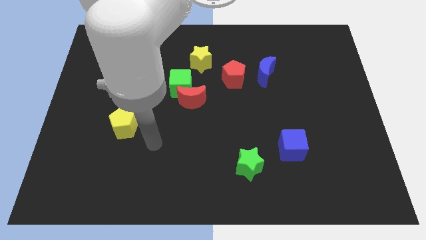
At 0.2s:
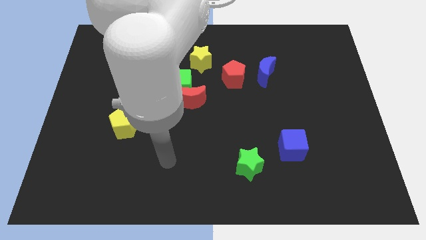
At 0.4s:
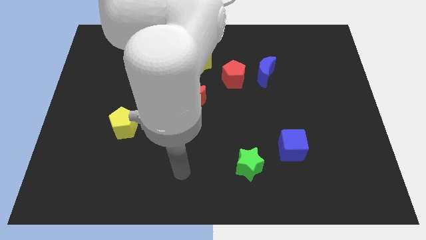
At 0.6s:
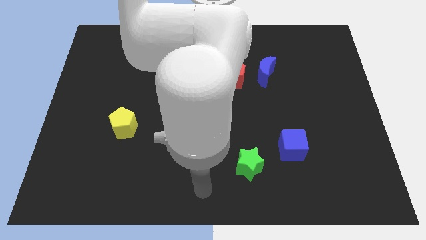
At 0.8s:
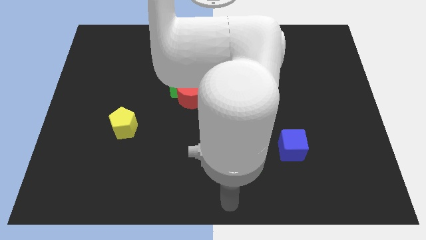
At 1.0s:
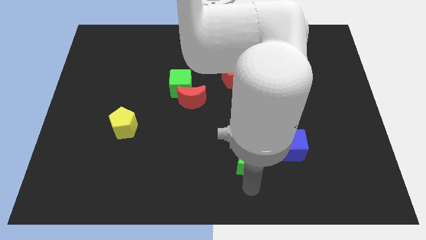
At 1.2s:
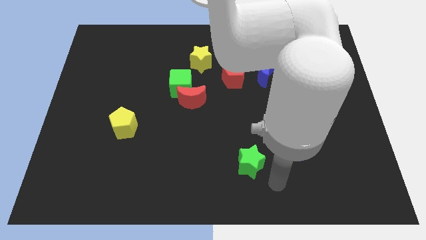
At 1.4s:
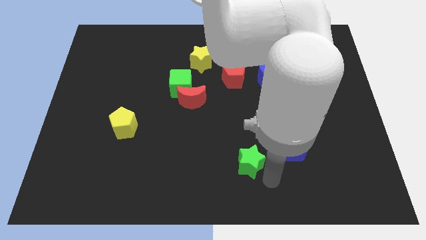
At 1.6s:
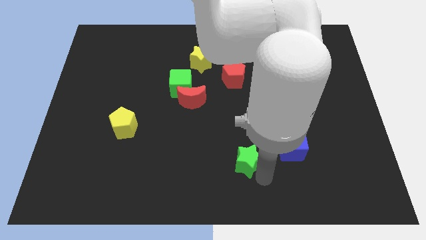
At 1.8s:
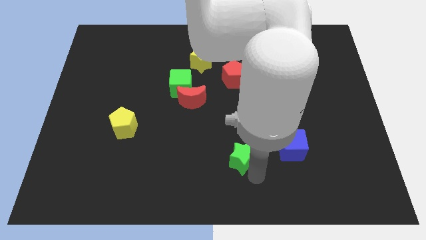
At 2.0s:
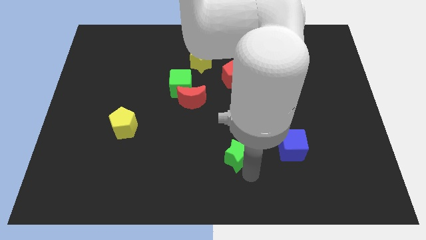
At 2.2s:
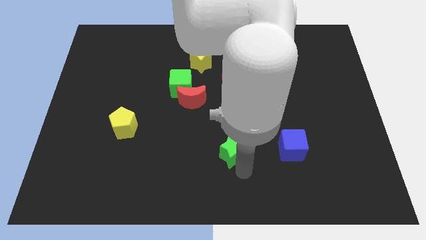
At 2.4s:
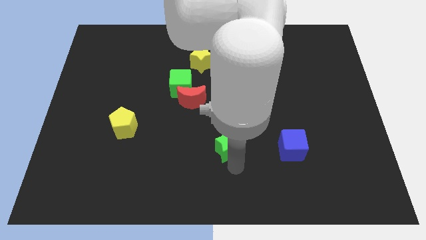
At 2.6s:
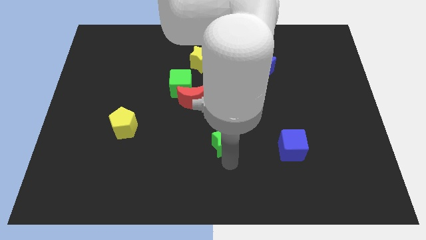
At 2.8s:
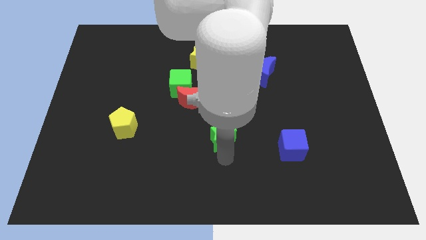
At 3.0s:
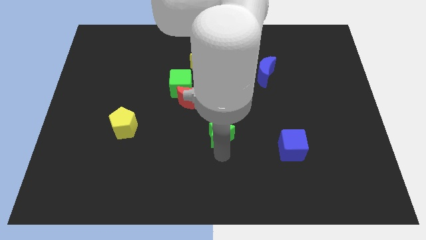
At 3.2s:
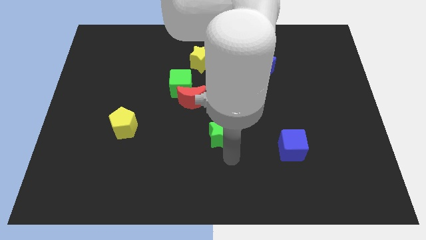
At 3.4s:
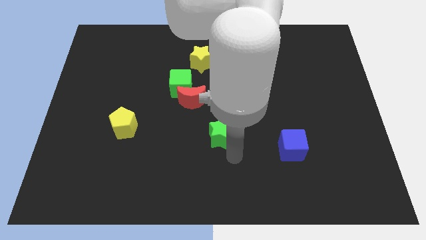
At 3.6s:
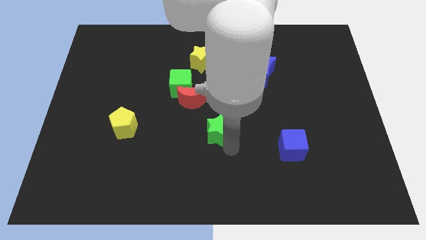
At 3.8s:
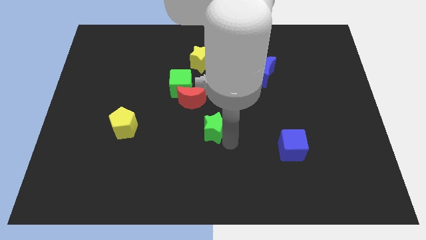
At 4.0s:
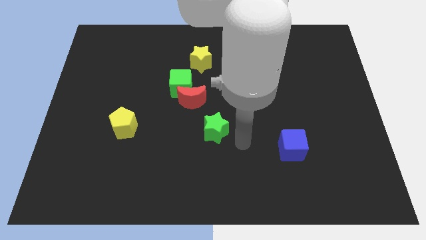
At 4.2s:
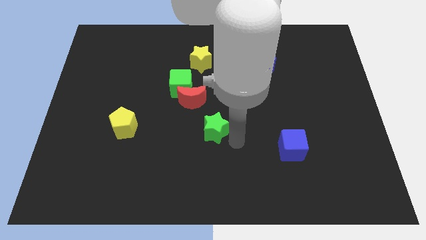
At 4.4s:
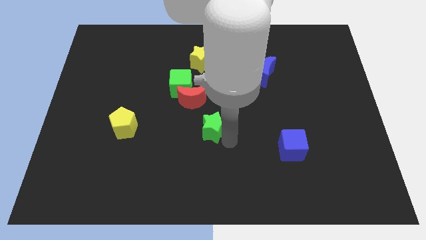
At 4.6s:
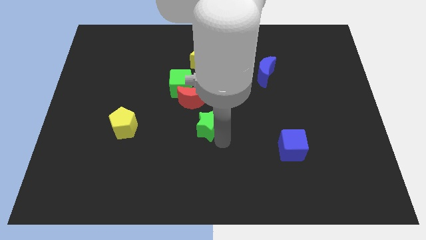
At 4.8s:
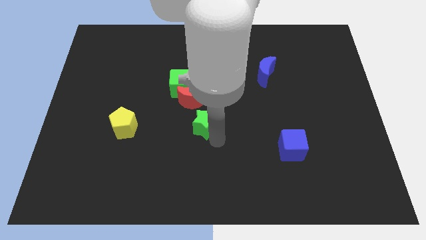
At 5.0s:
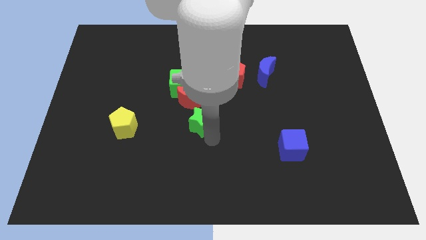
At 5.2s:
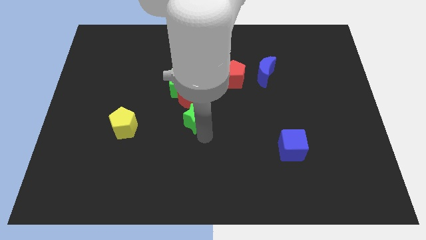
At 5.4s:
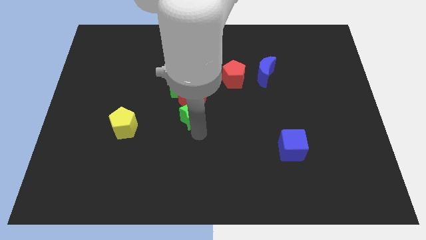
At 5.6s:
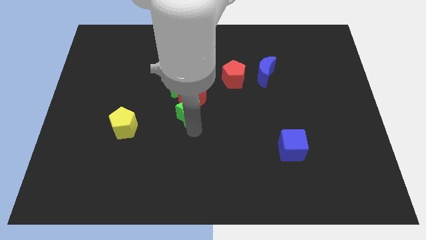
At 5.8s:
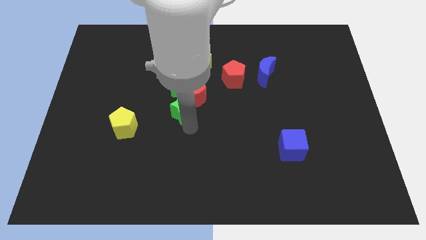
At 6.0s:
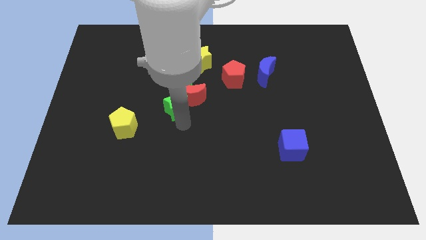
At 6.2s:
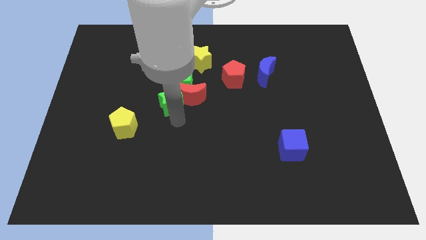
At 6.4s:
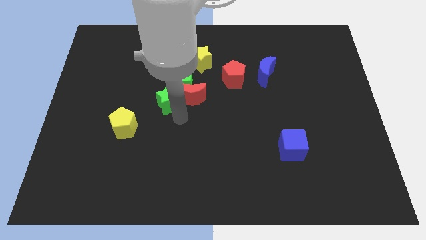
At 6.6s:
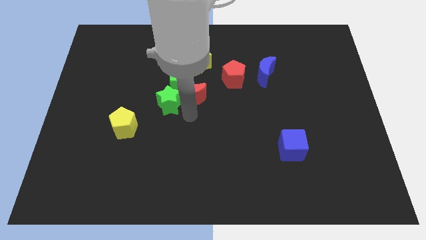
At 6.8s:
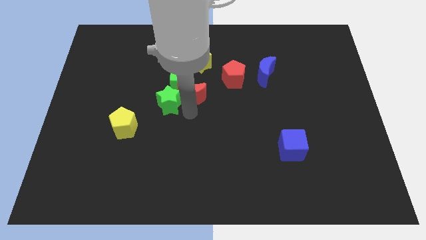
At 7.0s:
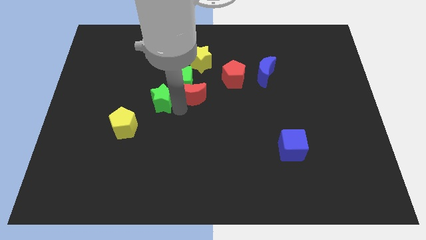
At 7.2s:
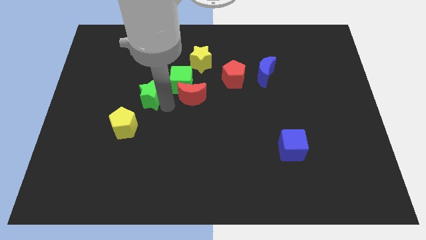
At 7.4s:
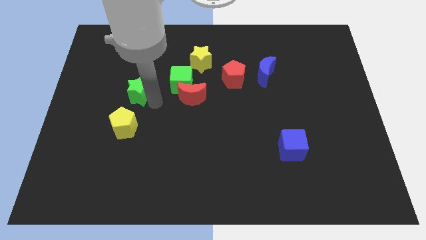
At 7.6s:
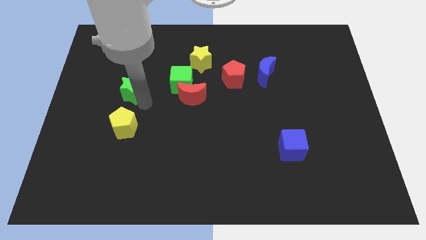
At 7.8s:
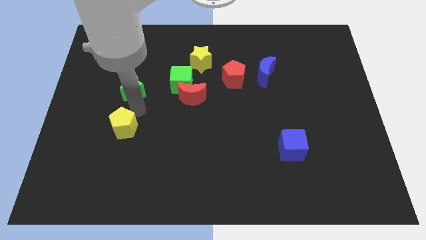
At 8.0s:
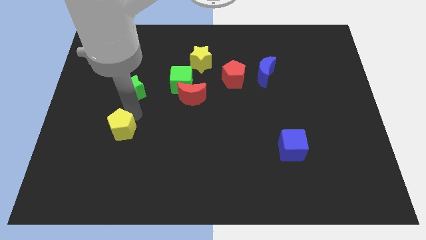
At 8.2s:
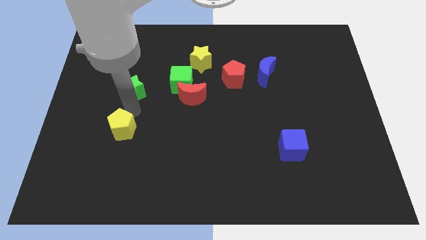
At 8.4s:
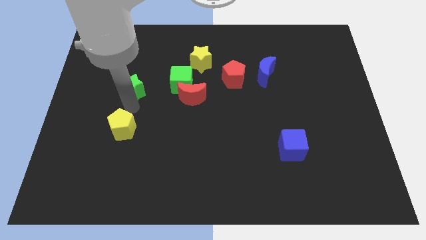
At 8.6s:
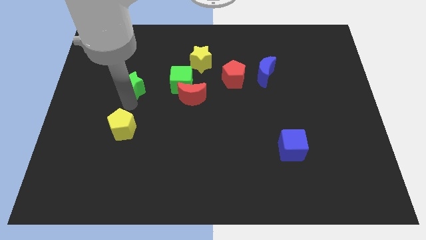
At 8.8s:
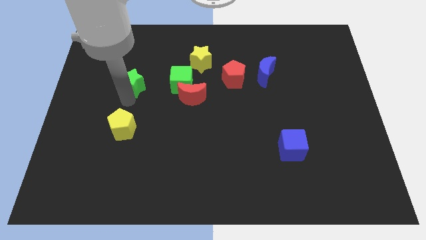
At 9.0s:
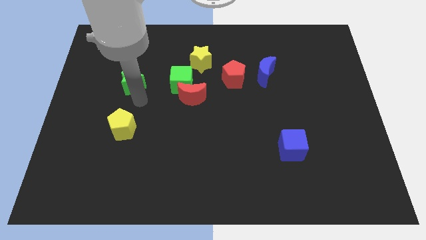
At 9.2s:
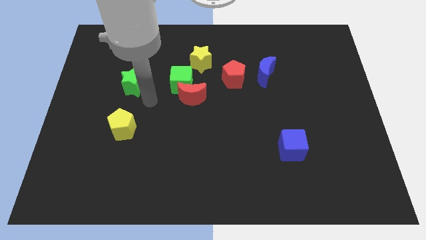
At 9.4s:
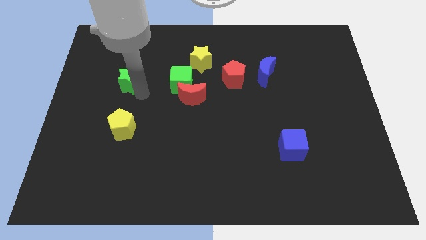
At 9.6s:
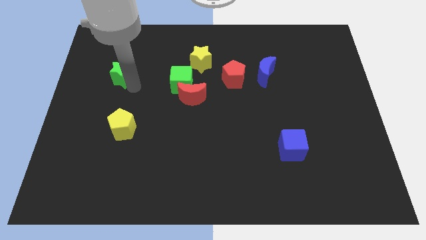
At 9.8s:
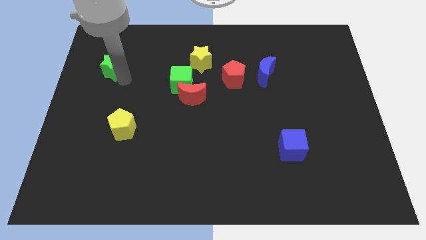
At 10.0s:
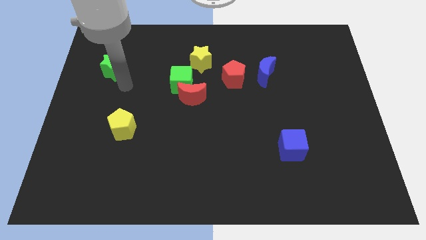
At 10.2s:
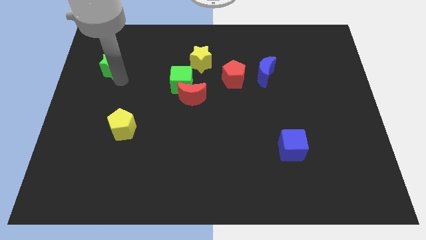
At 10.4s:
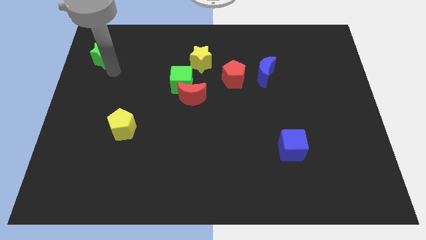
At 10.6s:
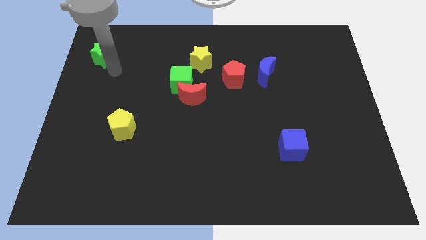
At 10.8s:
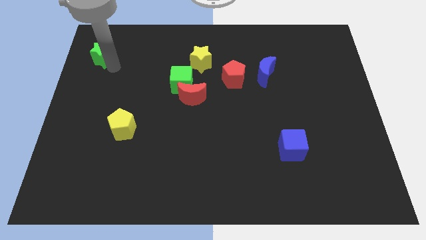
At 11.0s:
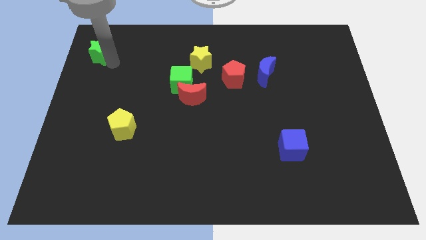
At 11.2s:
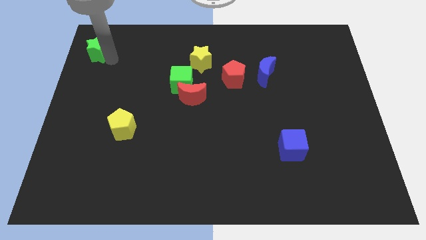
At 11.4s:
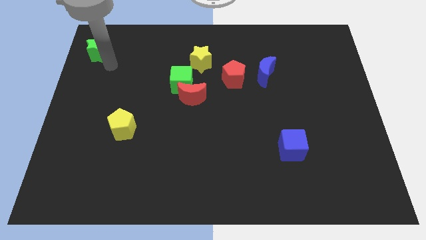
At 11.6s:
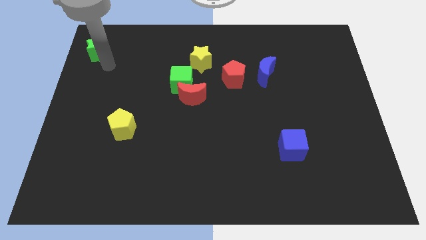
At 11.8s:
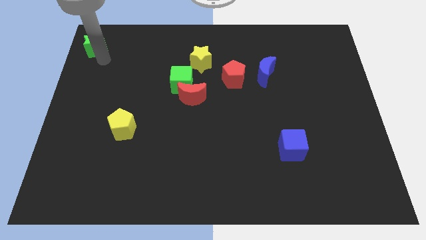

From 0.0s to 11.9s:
move the green star to the upper left corner
